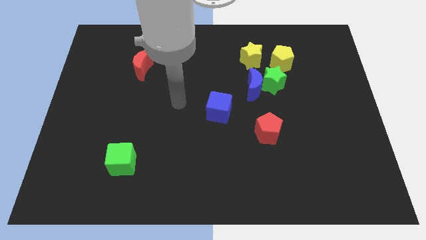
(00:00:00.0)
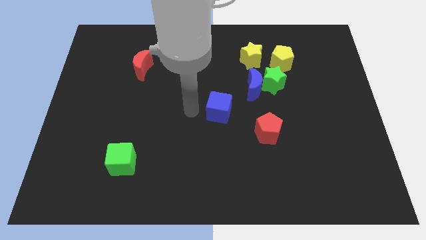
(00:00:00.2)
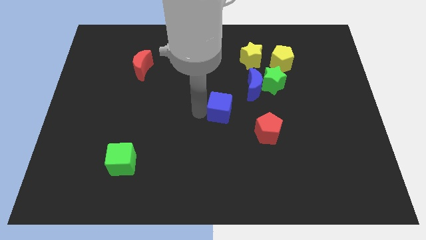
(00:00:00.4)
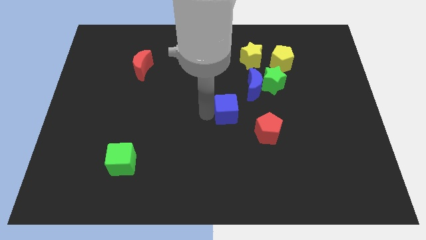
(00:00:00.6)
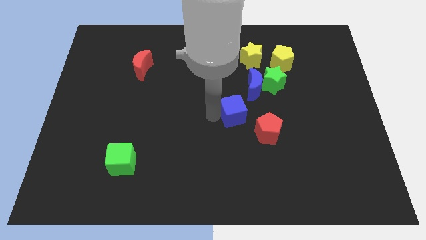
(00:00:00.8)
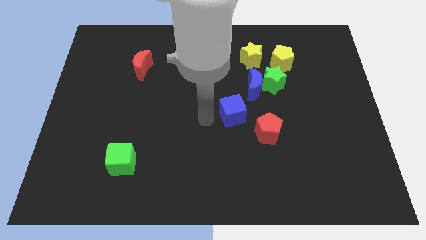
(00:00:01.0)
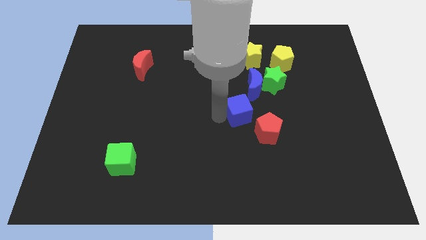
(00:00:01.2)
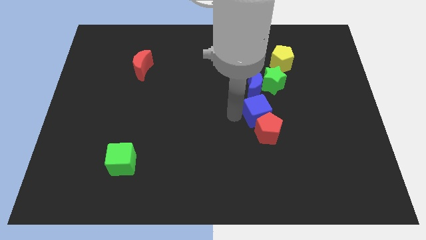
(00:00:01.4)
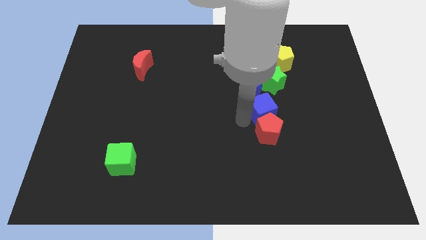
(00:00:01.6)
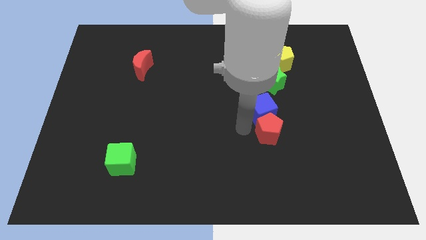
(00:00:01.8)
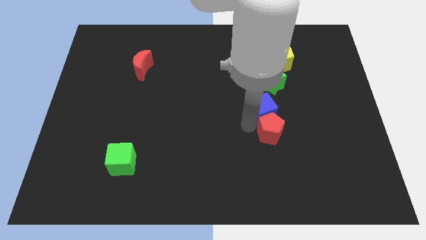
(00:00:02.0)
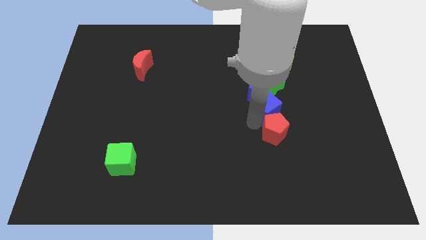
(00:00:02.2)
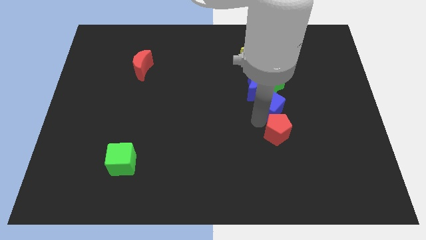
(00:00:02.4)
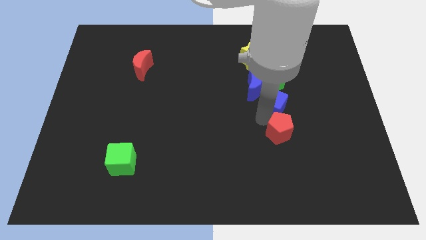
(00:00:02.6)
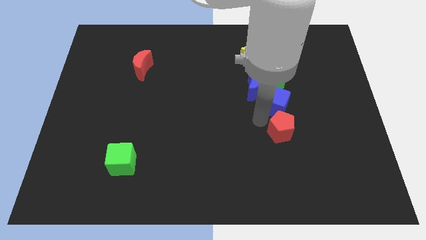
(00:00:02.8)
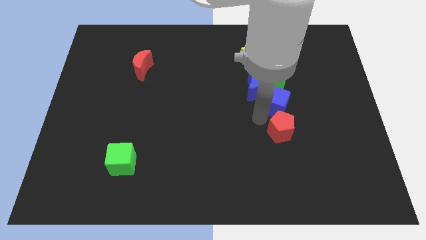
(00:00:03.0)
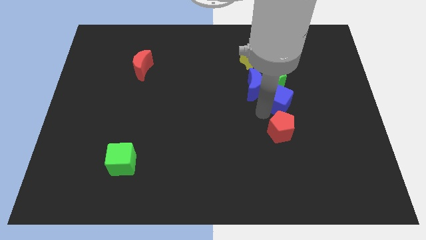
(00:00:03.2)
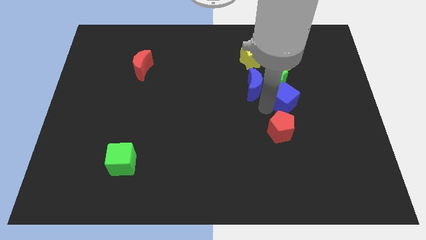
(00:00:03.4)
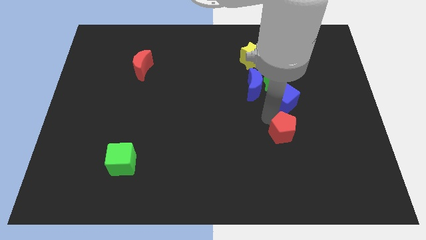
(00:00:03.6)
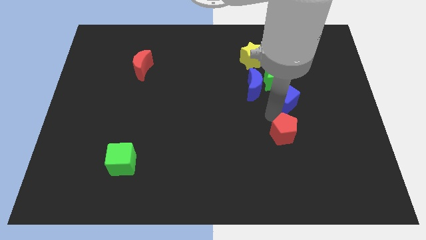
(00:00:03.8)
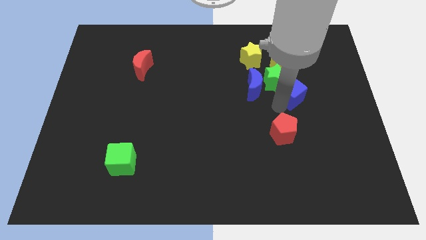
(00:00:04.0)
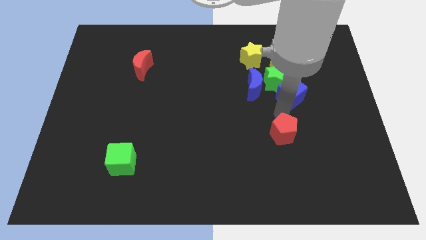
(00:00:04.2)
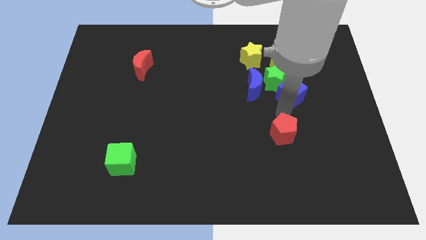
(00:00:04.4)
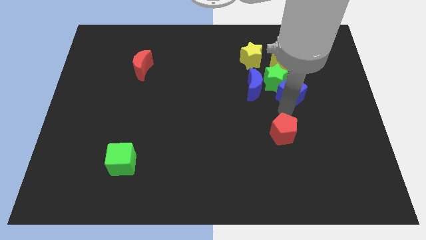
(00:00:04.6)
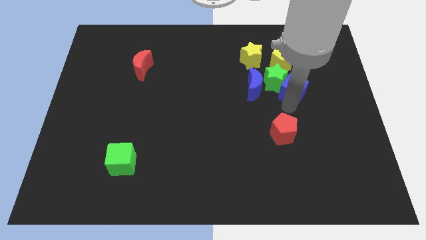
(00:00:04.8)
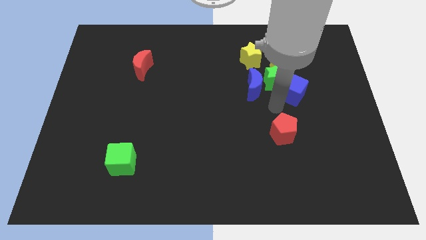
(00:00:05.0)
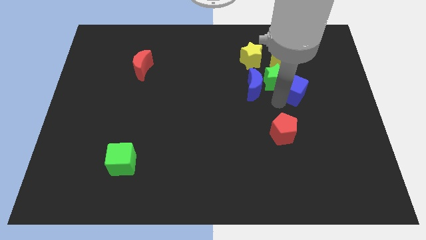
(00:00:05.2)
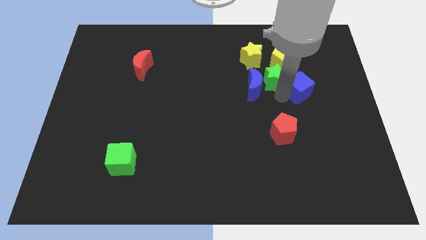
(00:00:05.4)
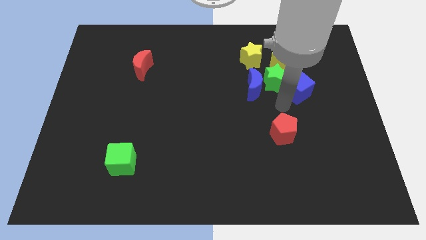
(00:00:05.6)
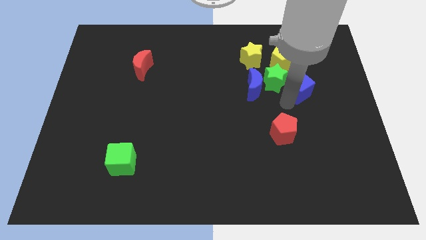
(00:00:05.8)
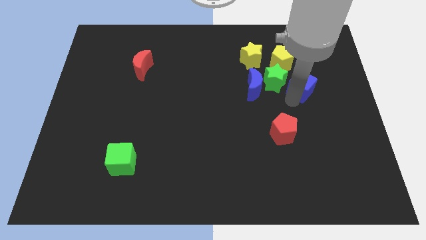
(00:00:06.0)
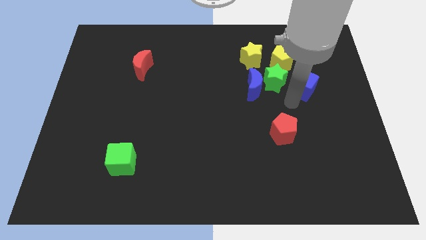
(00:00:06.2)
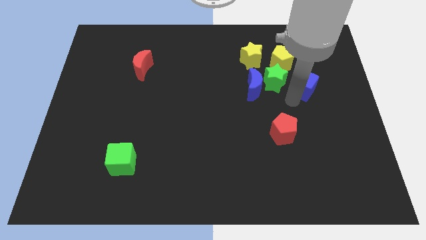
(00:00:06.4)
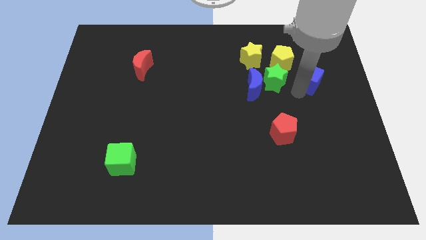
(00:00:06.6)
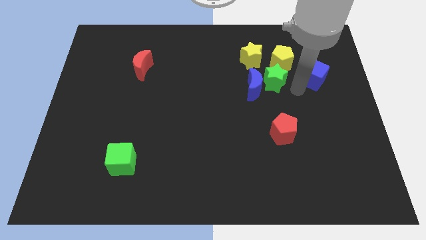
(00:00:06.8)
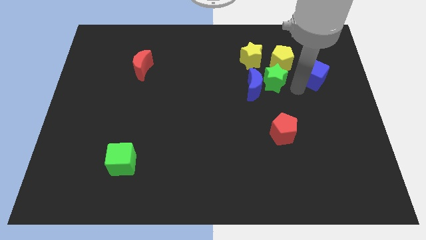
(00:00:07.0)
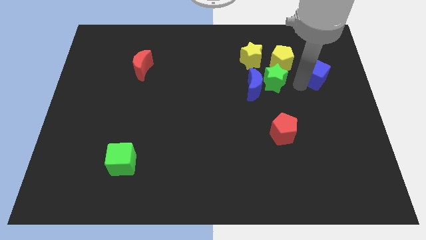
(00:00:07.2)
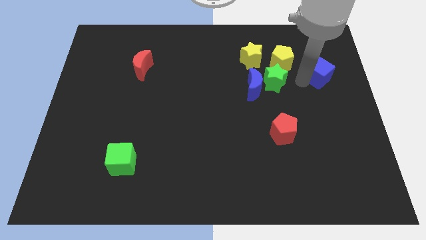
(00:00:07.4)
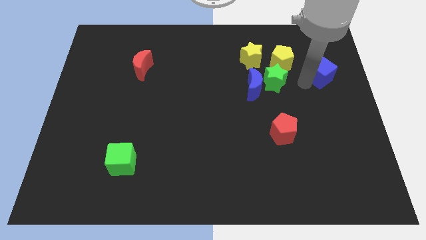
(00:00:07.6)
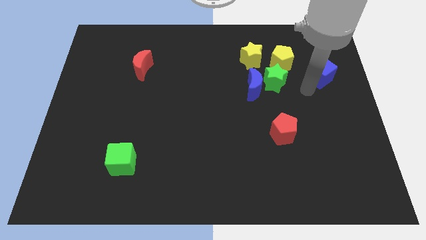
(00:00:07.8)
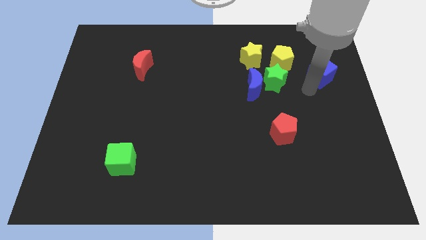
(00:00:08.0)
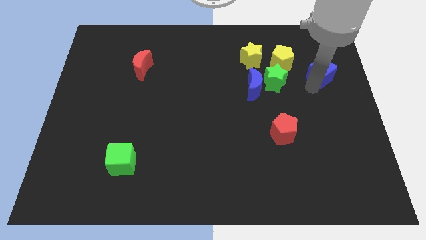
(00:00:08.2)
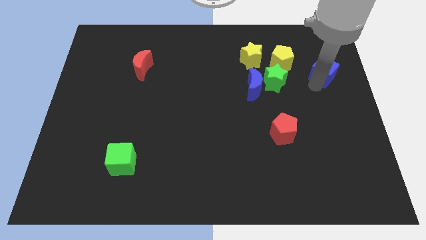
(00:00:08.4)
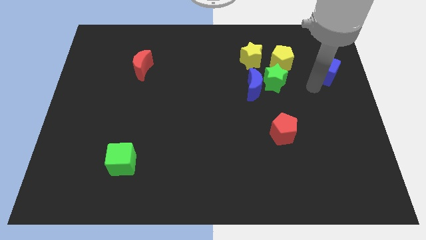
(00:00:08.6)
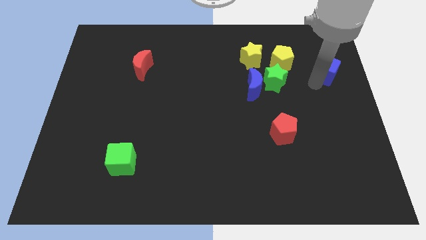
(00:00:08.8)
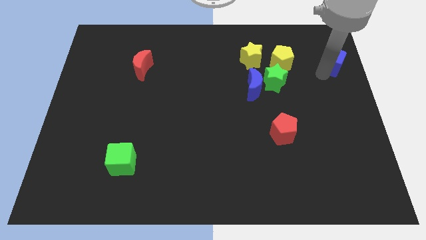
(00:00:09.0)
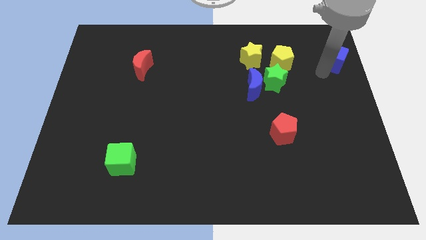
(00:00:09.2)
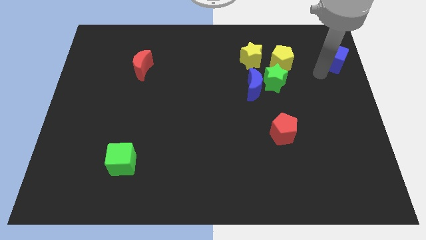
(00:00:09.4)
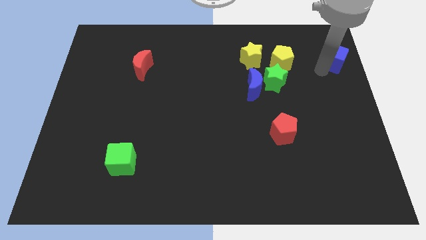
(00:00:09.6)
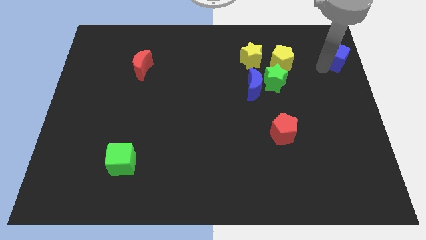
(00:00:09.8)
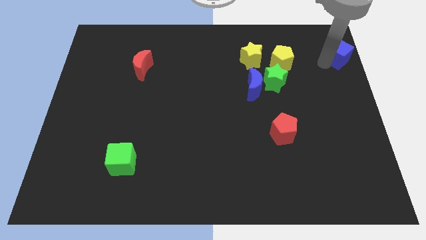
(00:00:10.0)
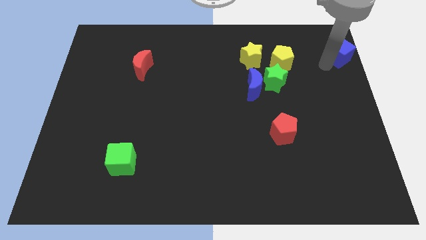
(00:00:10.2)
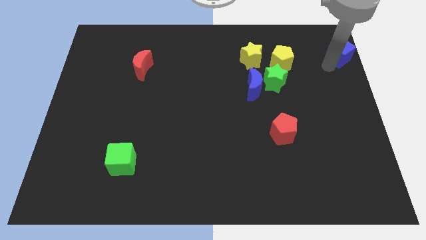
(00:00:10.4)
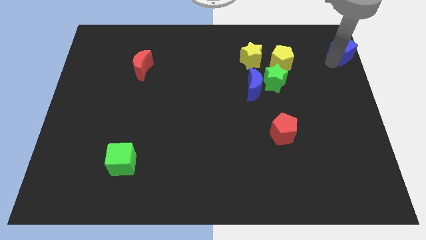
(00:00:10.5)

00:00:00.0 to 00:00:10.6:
move the blue cube to the top right

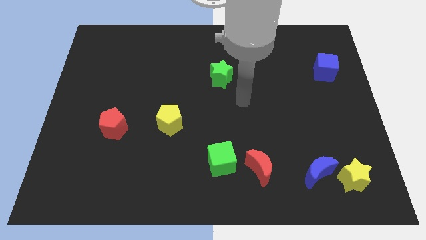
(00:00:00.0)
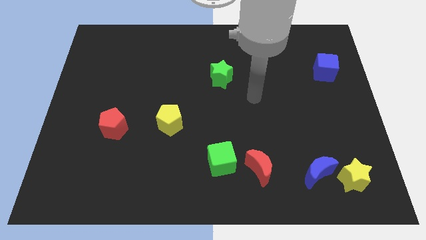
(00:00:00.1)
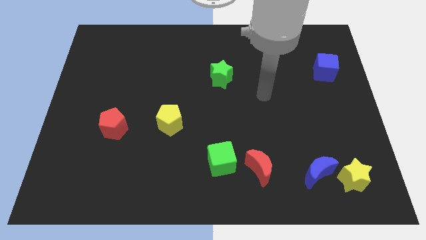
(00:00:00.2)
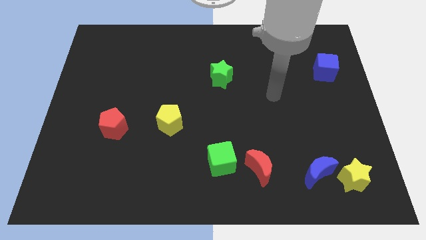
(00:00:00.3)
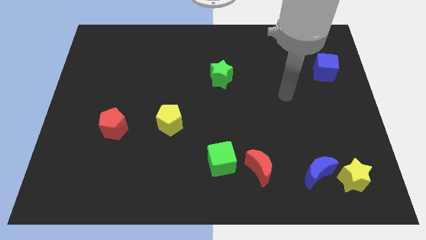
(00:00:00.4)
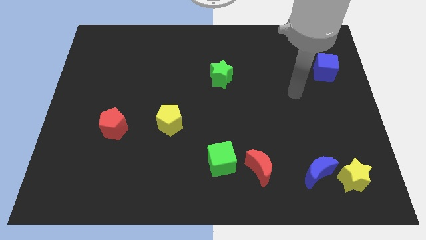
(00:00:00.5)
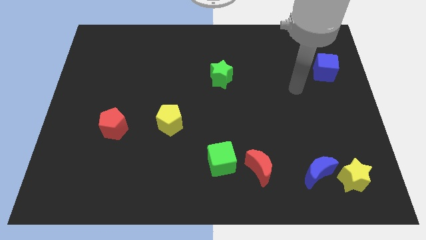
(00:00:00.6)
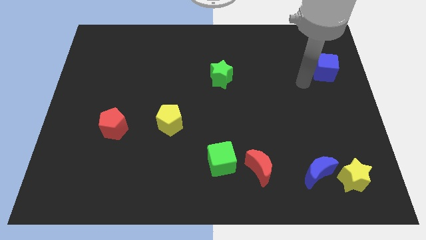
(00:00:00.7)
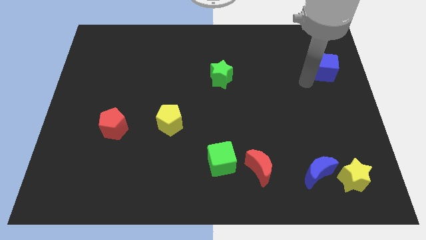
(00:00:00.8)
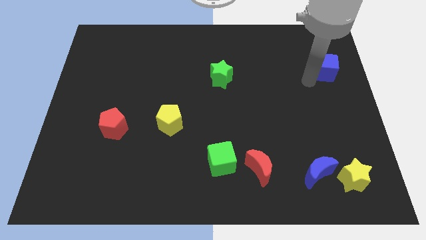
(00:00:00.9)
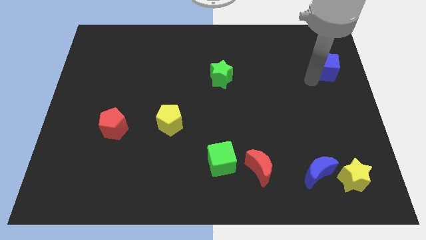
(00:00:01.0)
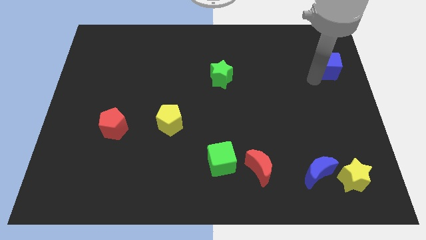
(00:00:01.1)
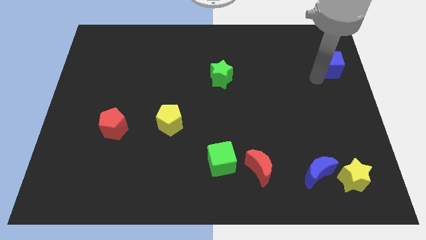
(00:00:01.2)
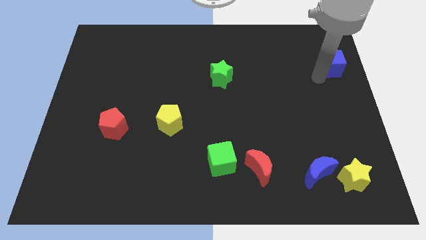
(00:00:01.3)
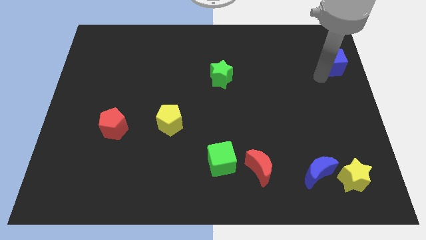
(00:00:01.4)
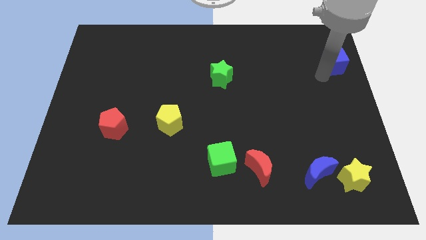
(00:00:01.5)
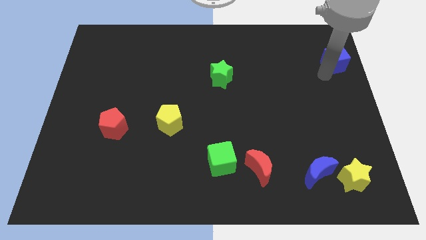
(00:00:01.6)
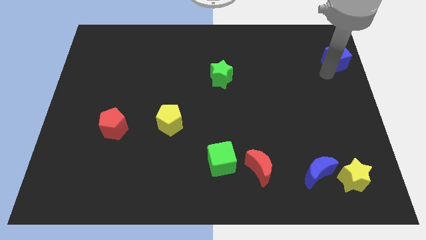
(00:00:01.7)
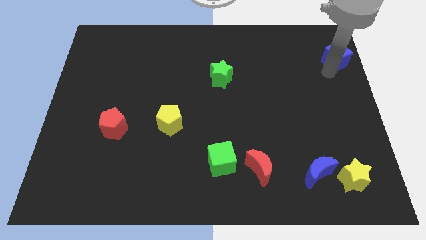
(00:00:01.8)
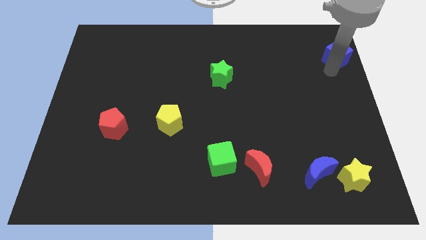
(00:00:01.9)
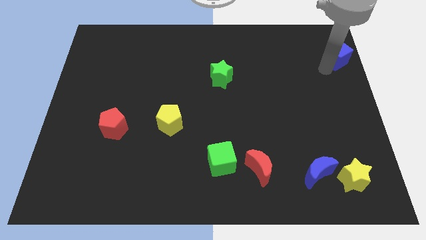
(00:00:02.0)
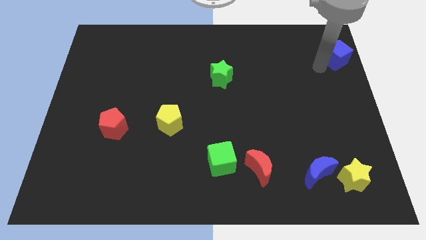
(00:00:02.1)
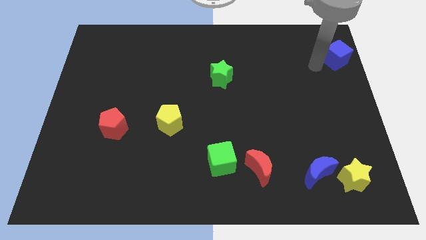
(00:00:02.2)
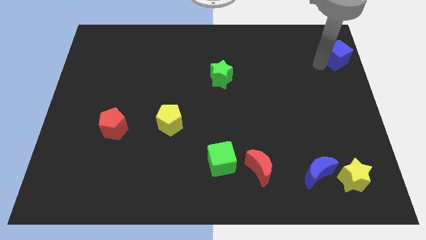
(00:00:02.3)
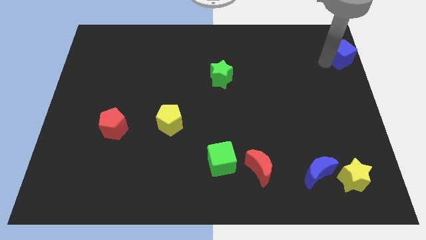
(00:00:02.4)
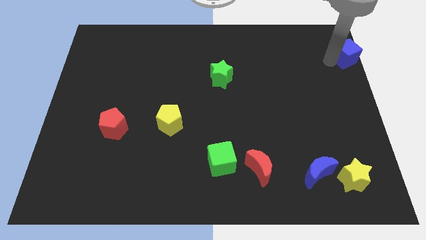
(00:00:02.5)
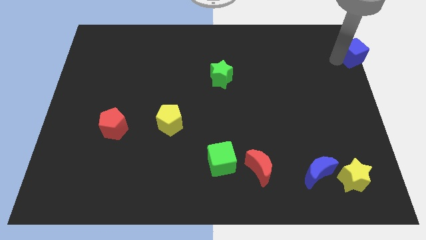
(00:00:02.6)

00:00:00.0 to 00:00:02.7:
put the blue cube to the top right of the board
